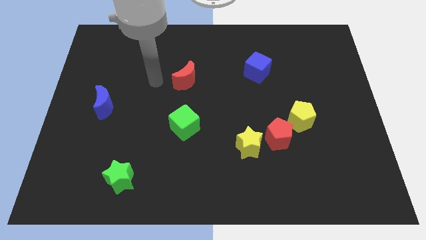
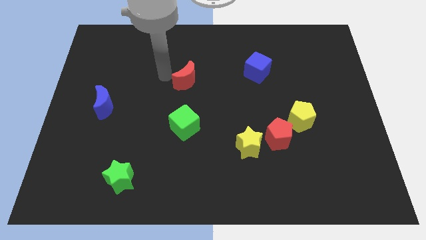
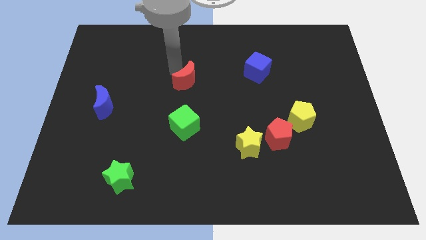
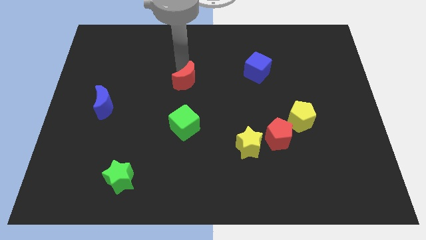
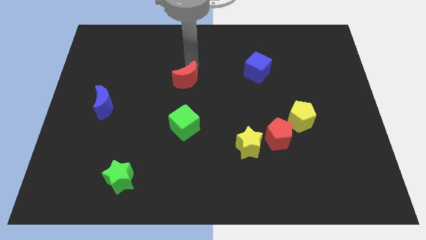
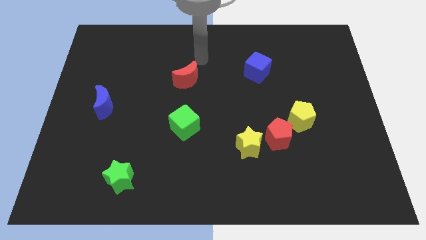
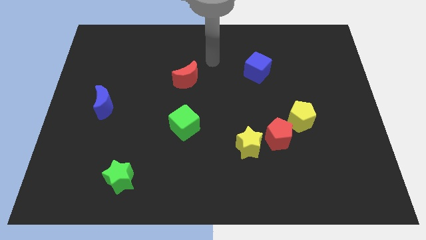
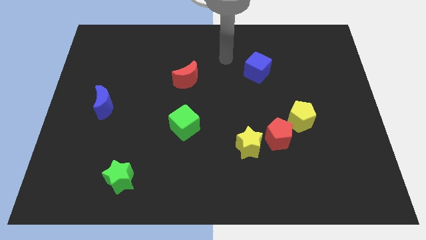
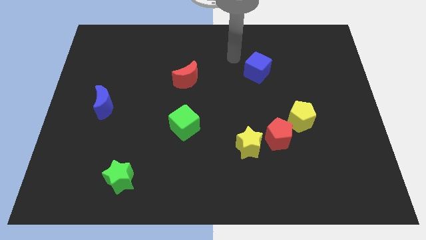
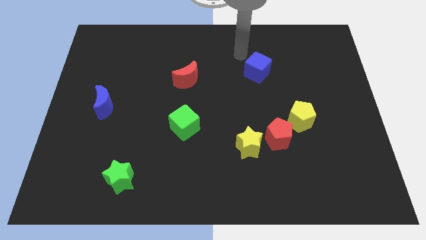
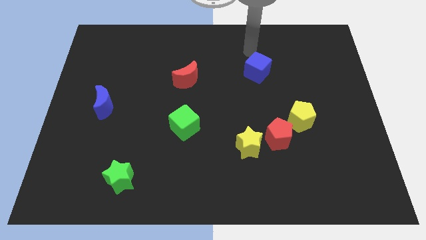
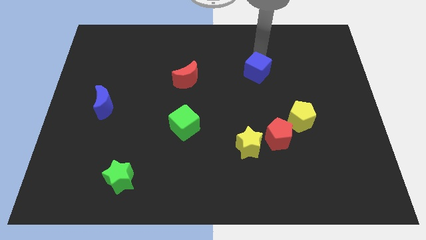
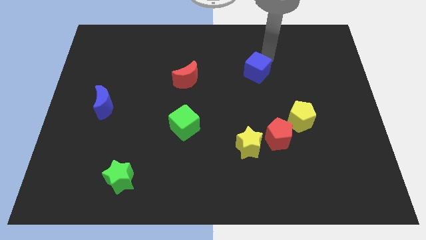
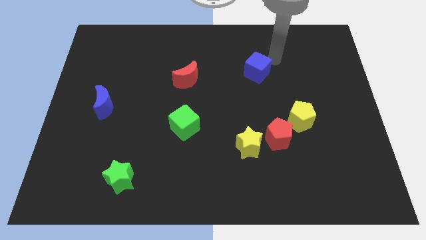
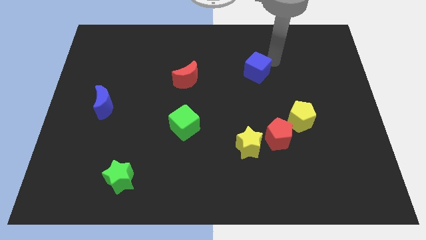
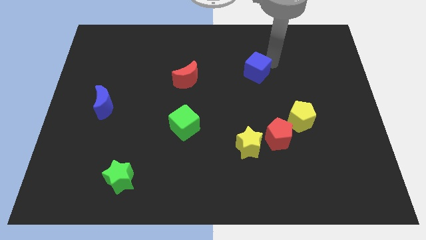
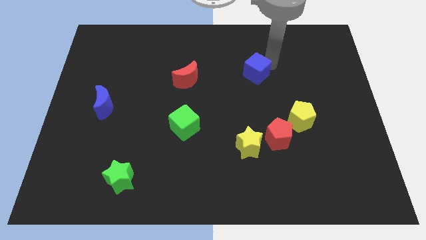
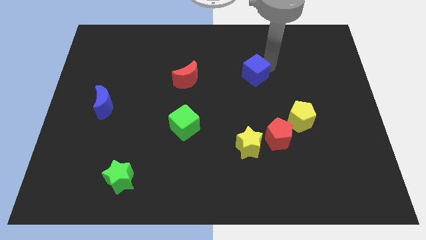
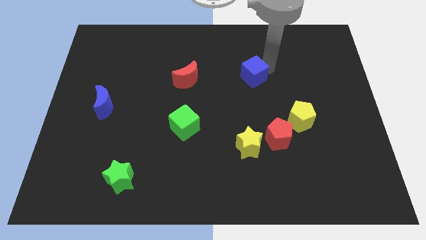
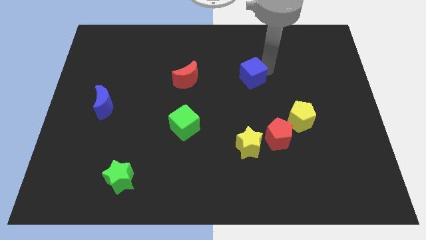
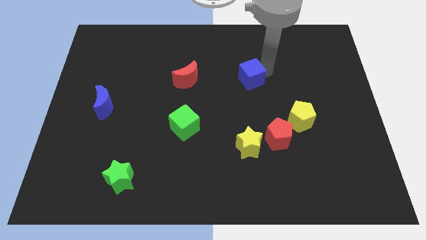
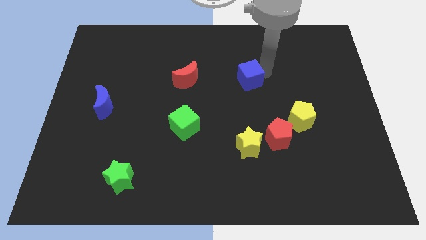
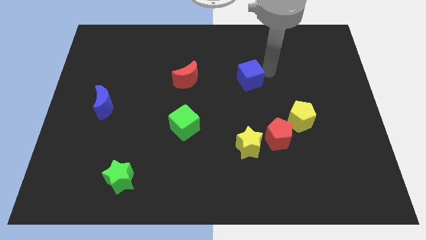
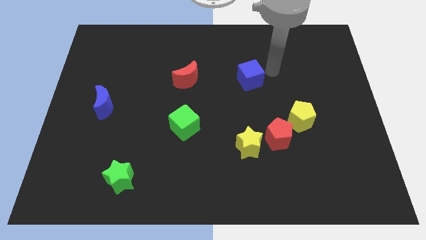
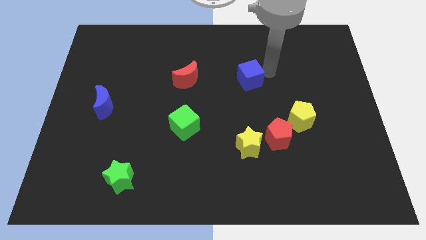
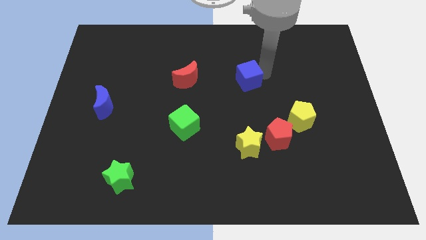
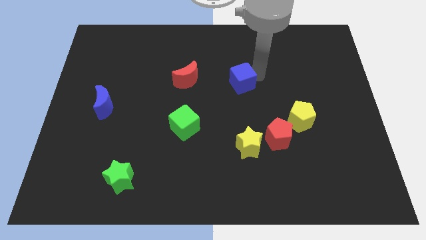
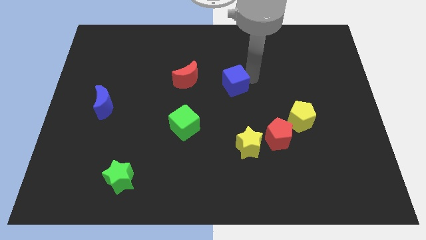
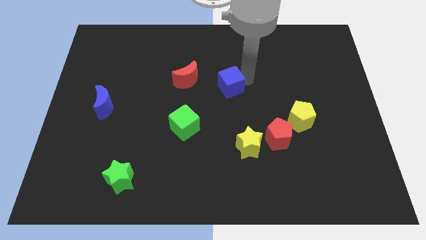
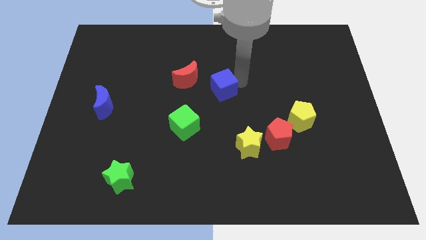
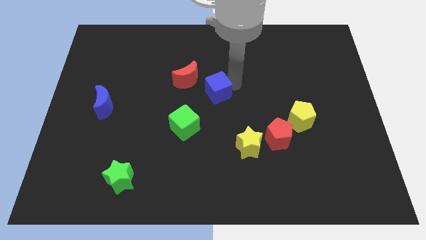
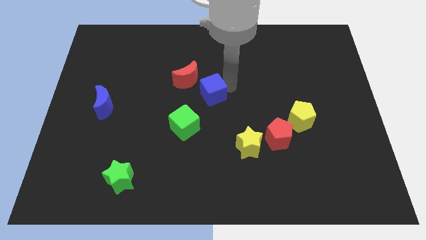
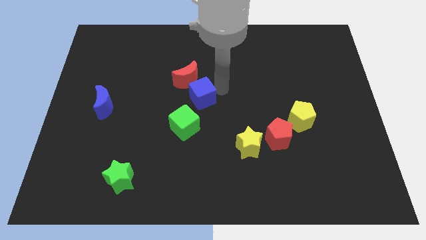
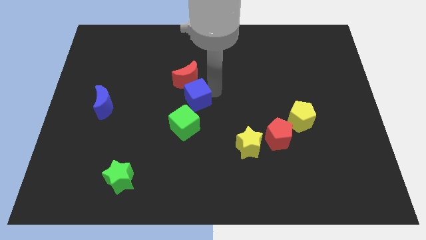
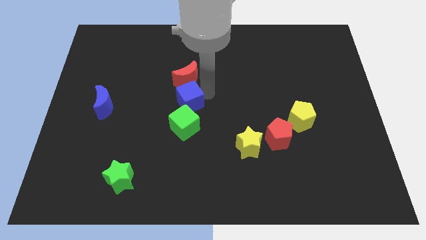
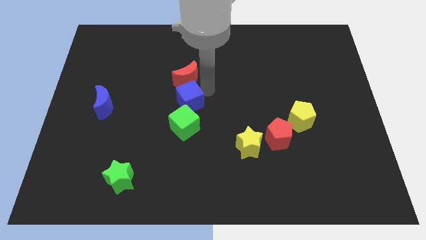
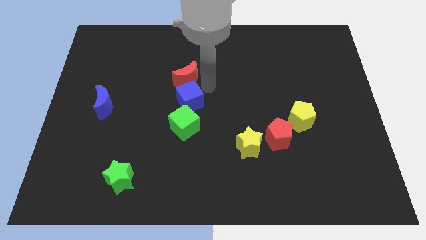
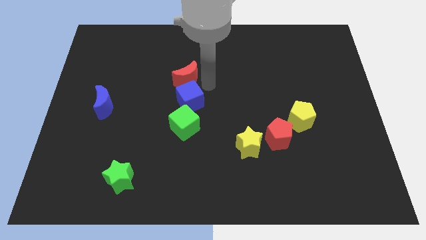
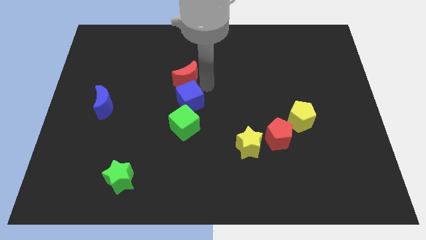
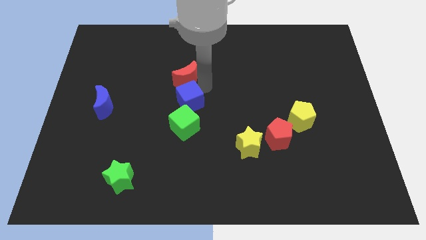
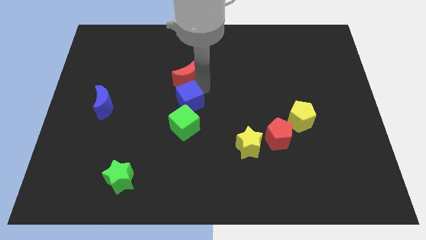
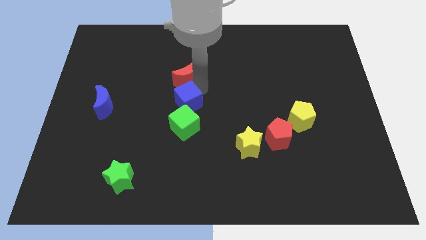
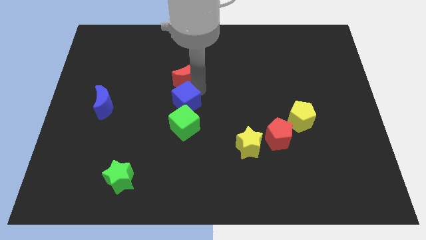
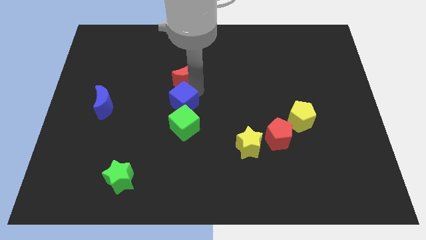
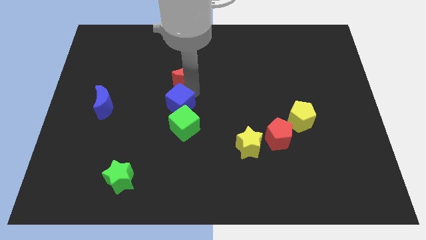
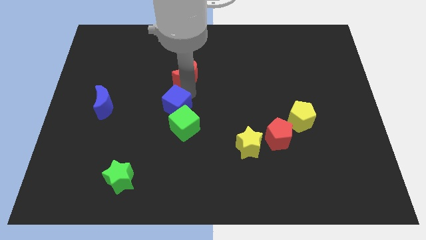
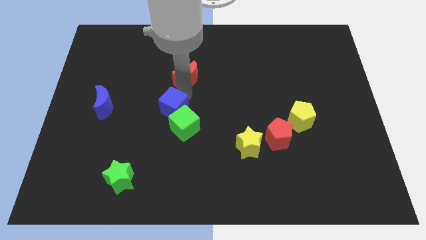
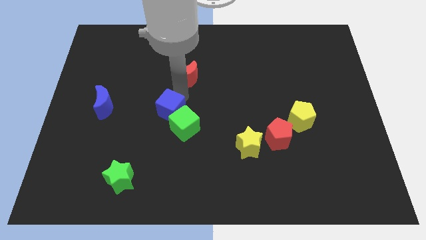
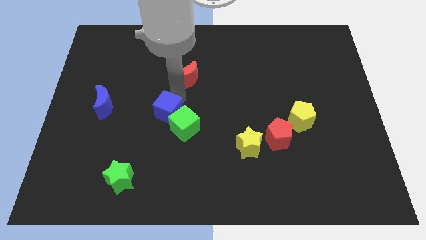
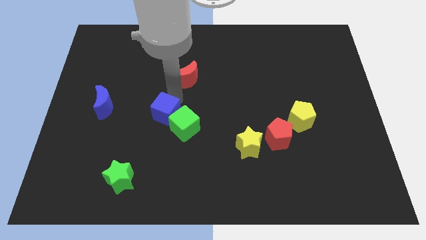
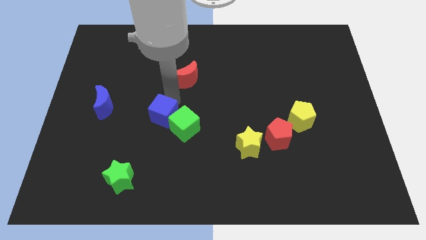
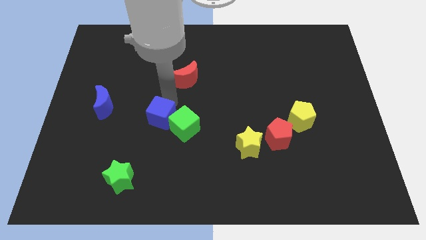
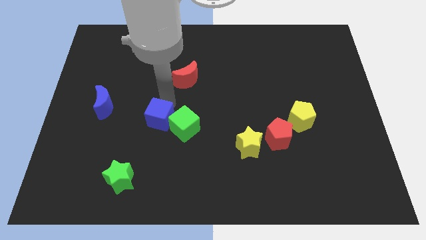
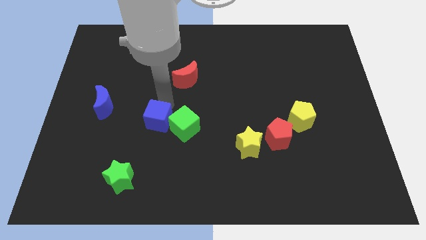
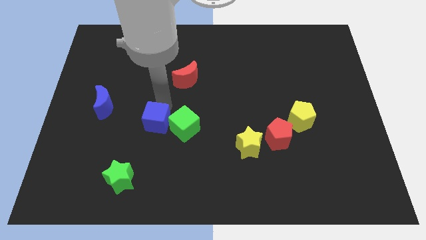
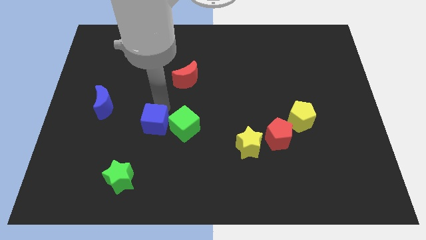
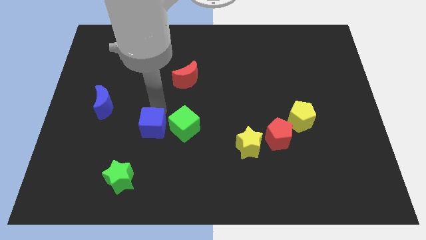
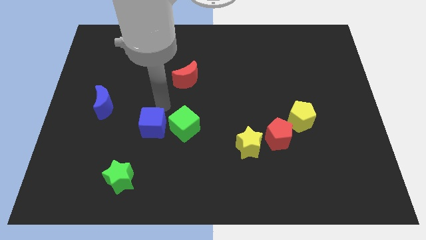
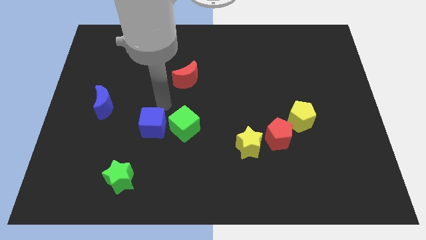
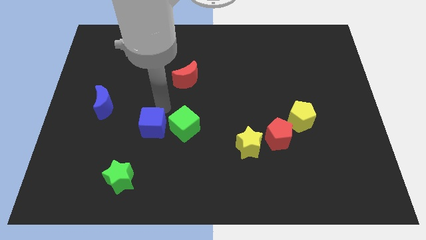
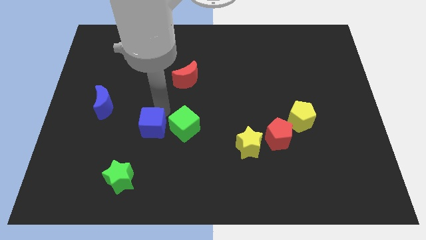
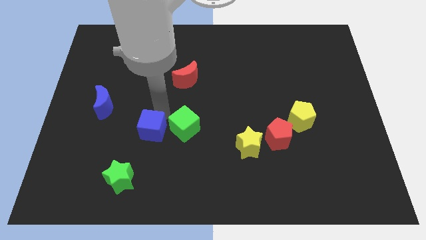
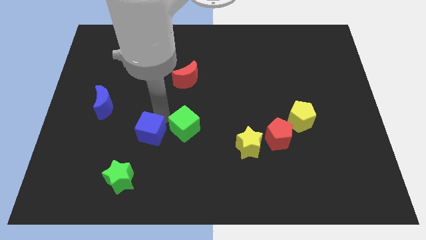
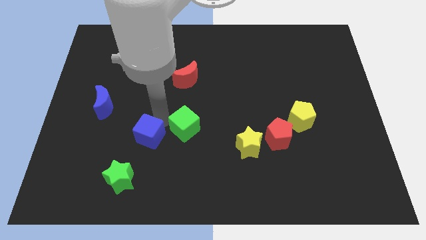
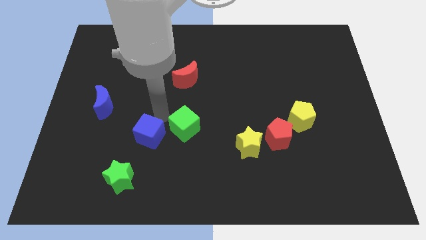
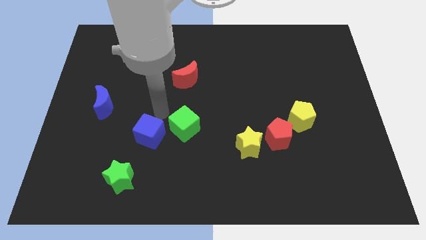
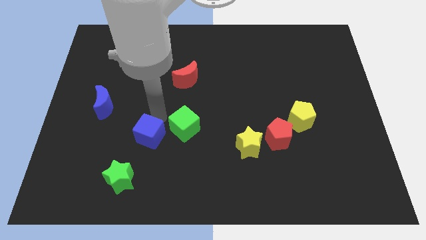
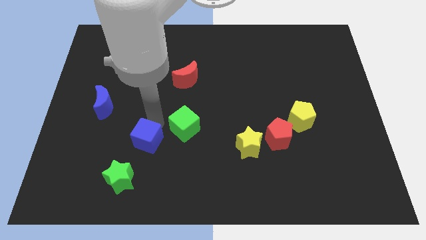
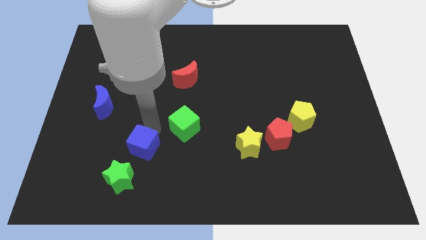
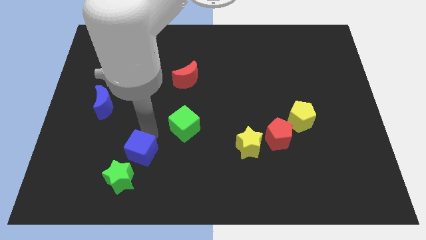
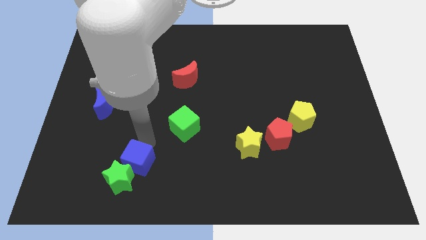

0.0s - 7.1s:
move the blue cube to the green star
